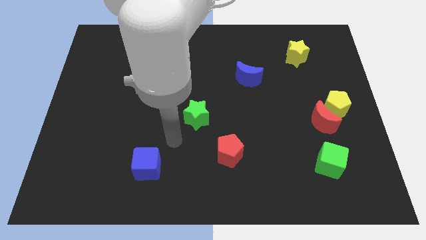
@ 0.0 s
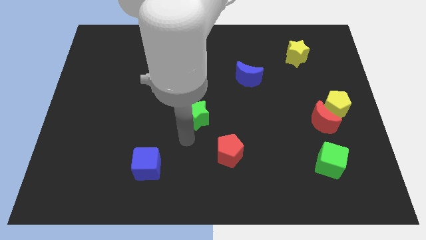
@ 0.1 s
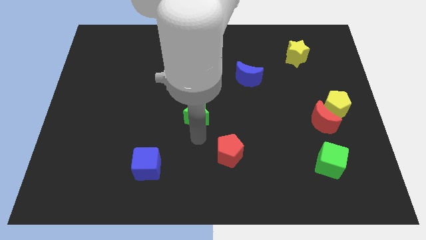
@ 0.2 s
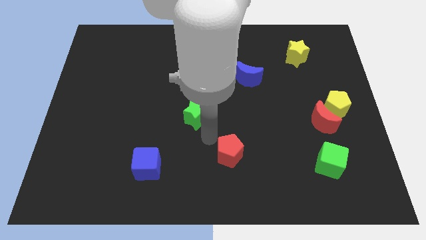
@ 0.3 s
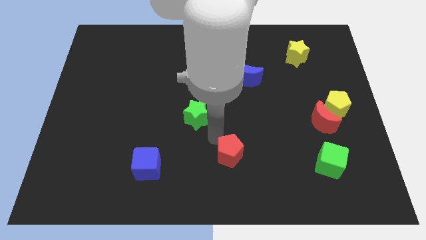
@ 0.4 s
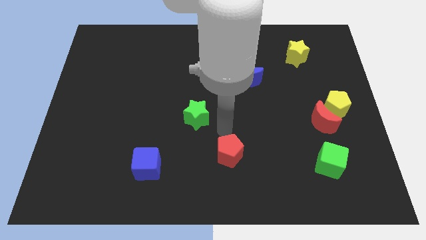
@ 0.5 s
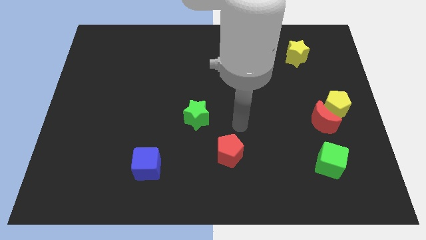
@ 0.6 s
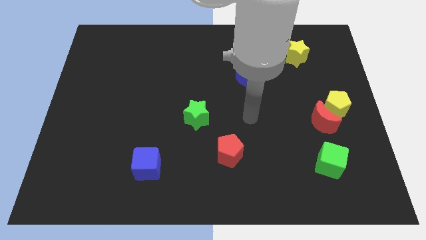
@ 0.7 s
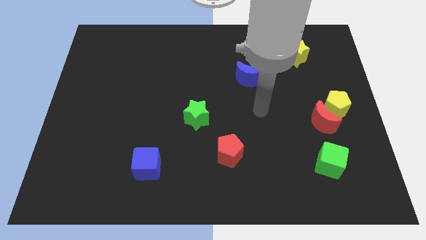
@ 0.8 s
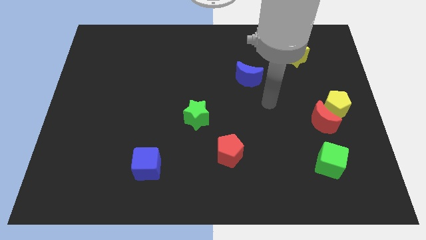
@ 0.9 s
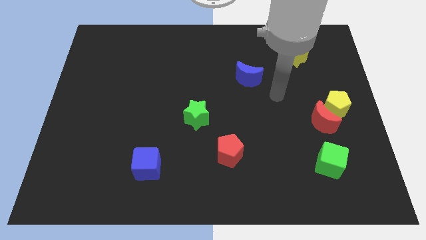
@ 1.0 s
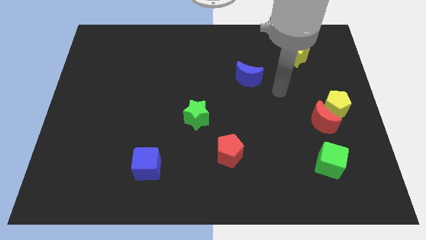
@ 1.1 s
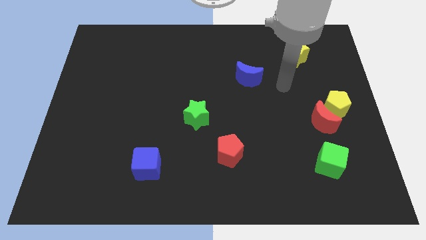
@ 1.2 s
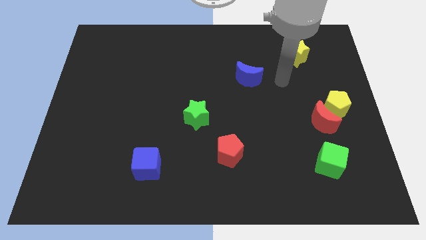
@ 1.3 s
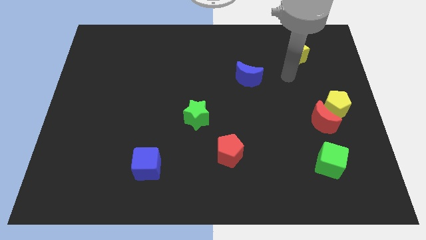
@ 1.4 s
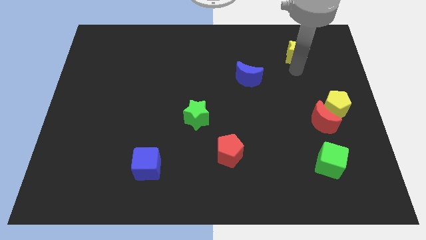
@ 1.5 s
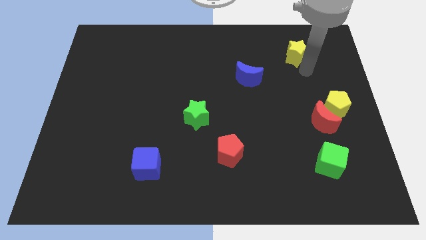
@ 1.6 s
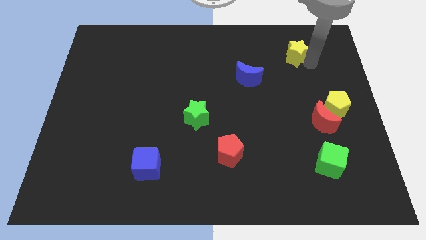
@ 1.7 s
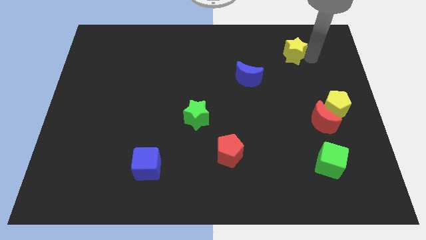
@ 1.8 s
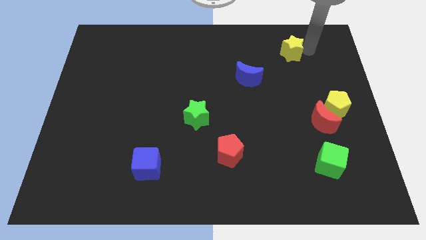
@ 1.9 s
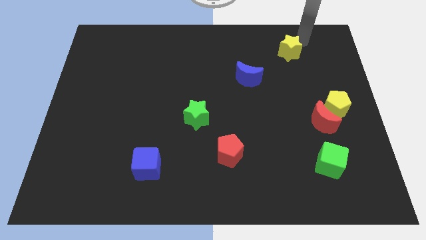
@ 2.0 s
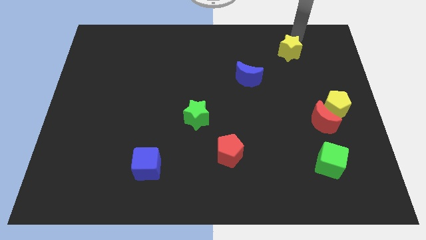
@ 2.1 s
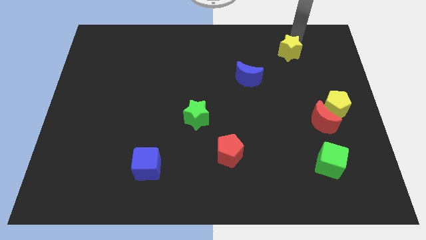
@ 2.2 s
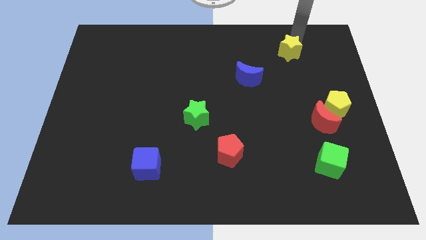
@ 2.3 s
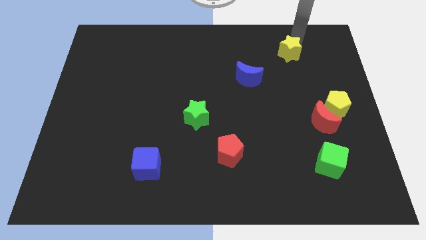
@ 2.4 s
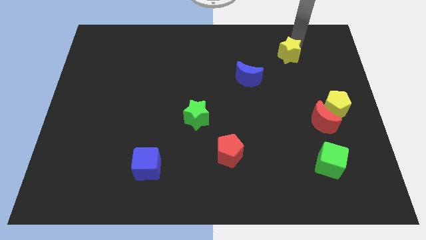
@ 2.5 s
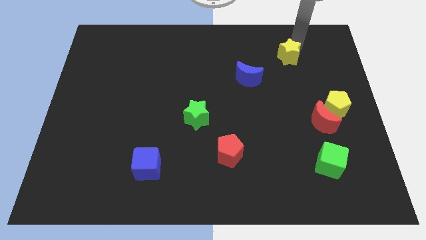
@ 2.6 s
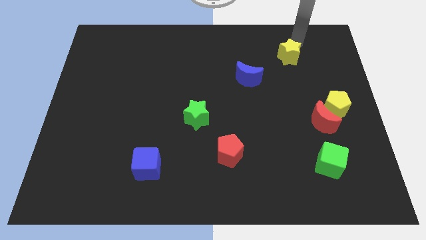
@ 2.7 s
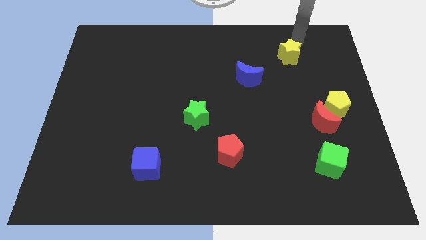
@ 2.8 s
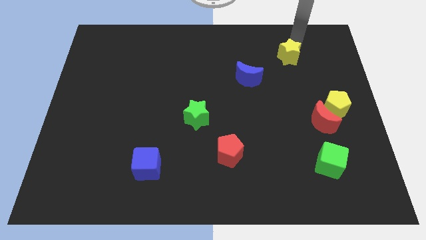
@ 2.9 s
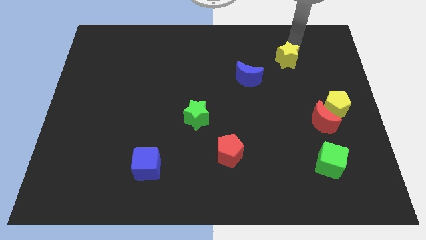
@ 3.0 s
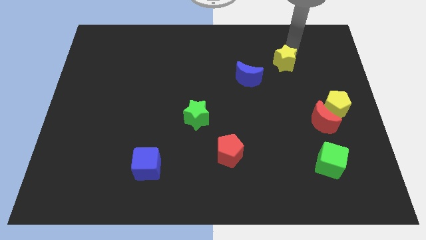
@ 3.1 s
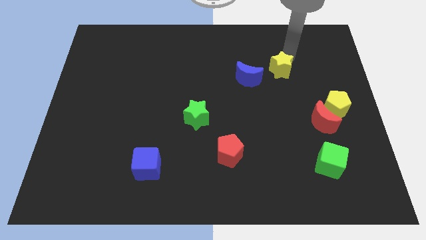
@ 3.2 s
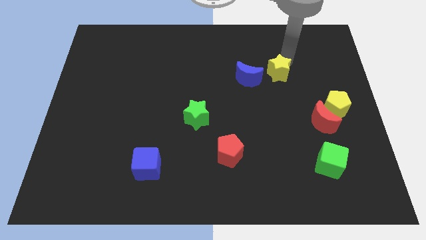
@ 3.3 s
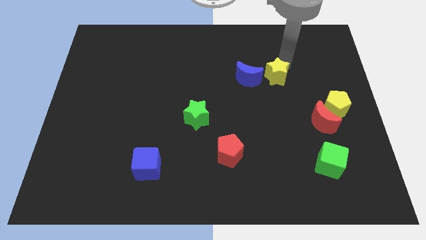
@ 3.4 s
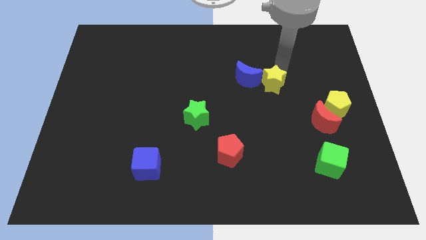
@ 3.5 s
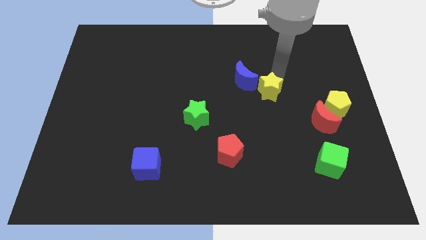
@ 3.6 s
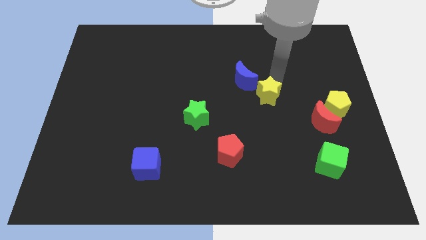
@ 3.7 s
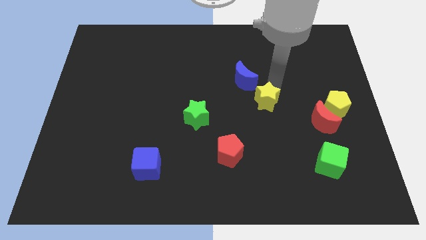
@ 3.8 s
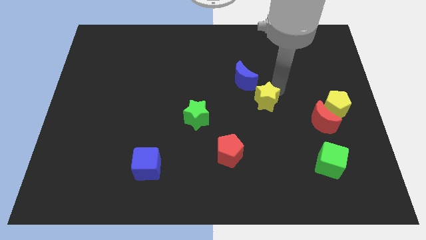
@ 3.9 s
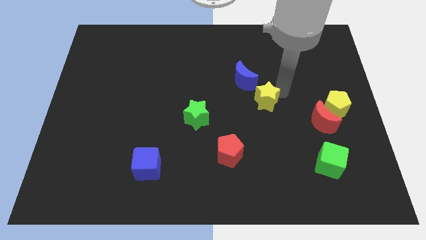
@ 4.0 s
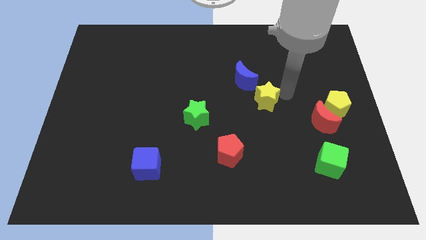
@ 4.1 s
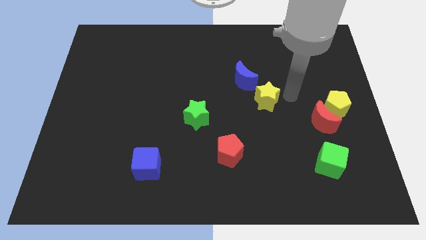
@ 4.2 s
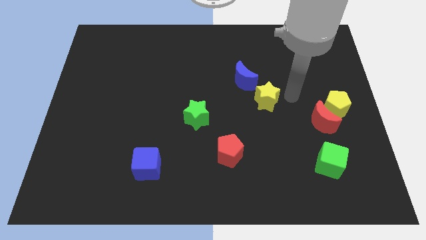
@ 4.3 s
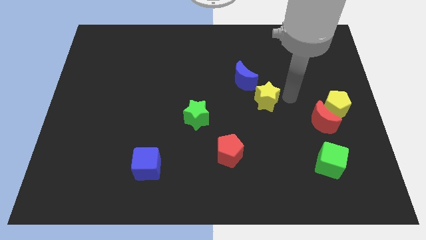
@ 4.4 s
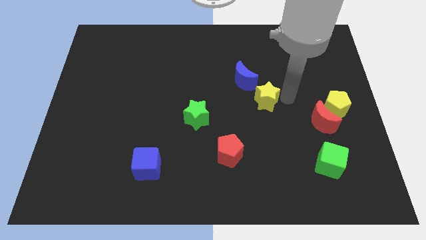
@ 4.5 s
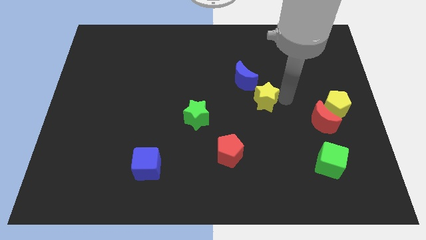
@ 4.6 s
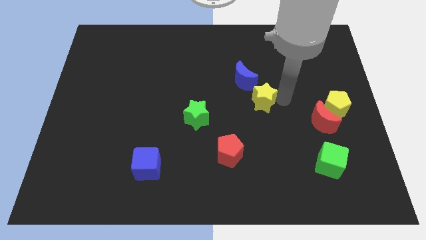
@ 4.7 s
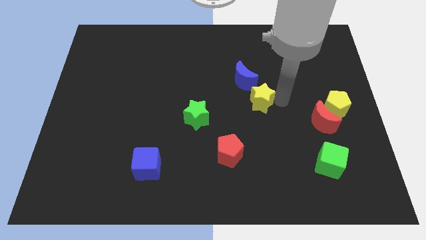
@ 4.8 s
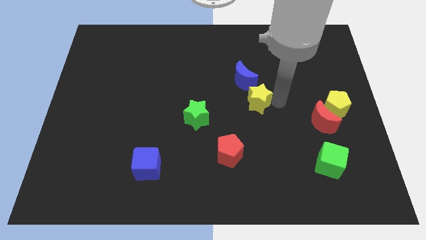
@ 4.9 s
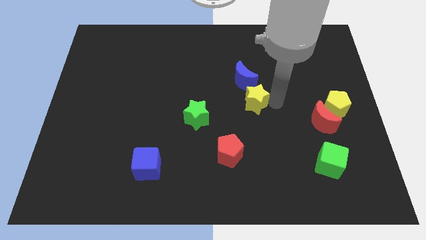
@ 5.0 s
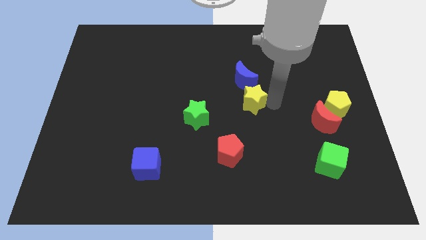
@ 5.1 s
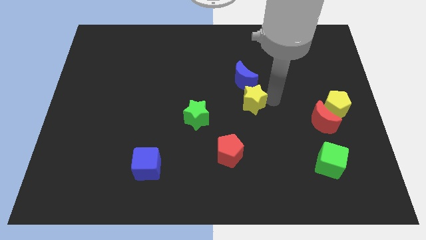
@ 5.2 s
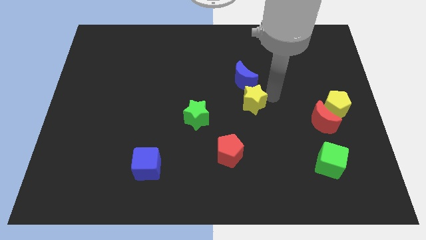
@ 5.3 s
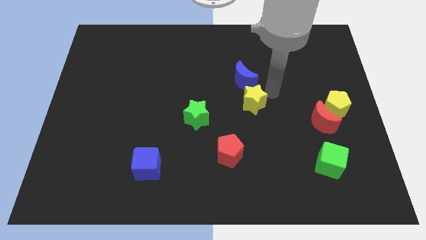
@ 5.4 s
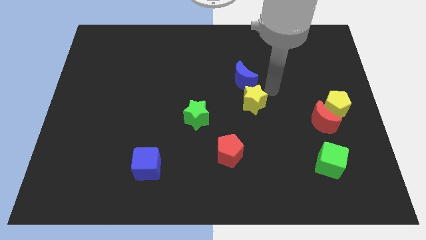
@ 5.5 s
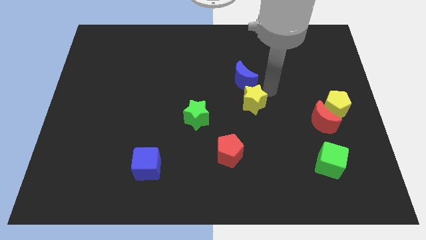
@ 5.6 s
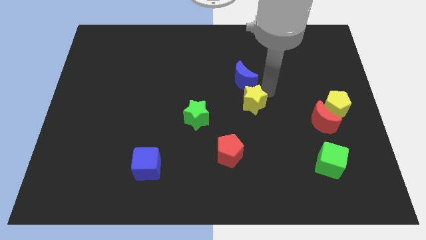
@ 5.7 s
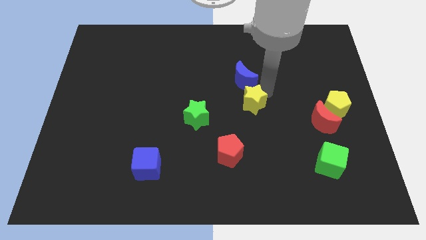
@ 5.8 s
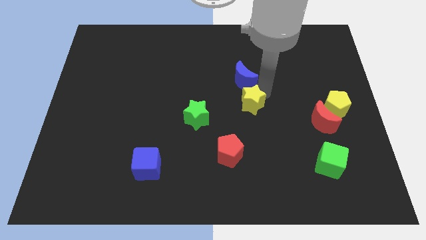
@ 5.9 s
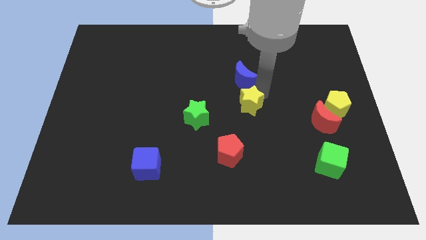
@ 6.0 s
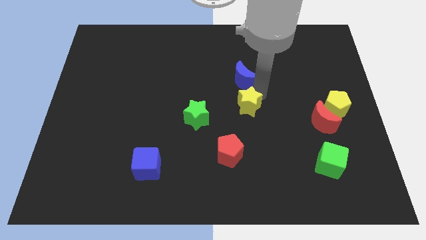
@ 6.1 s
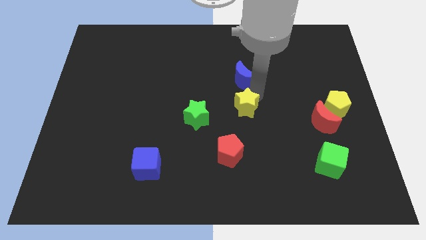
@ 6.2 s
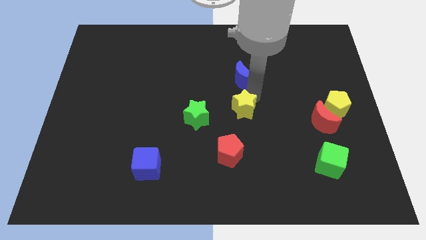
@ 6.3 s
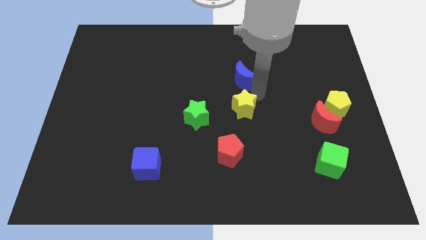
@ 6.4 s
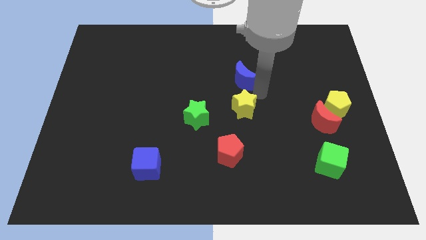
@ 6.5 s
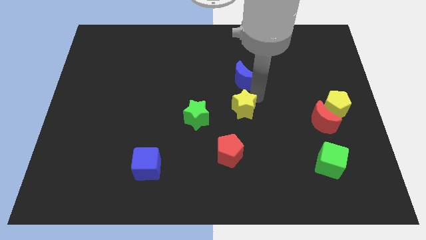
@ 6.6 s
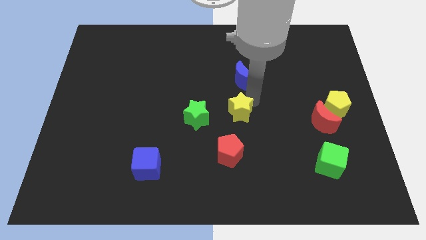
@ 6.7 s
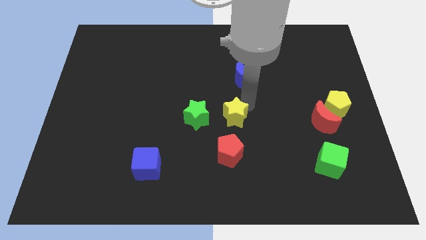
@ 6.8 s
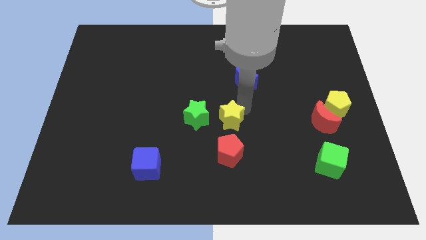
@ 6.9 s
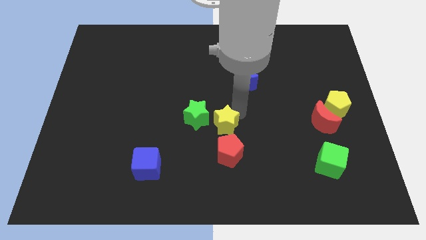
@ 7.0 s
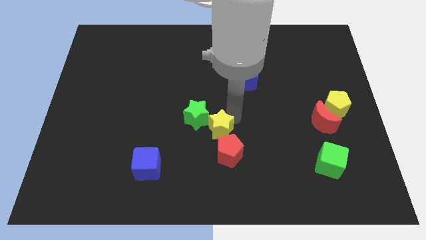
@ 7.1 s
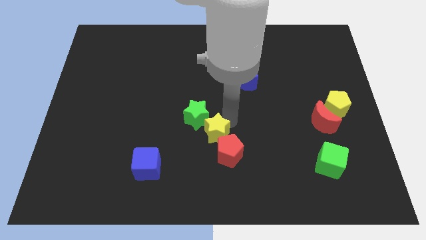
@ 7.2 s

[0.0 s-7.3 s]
slide the yellow star below the green star
